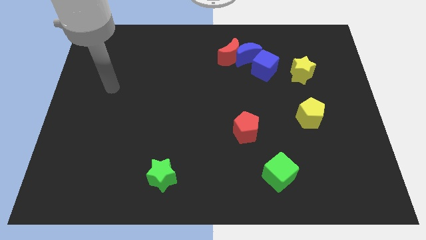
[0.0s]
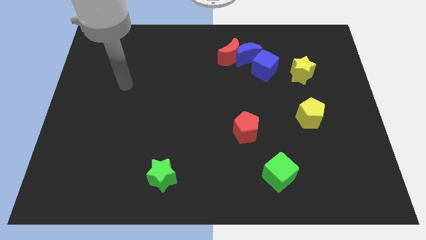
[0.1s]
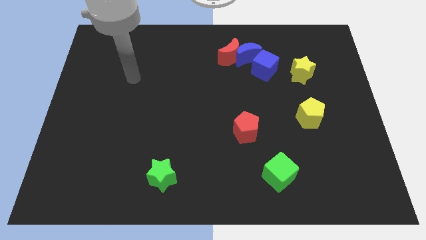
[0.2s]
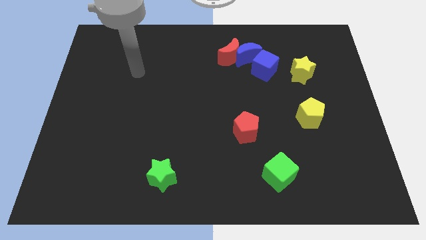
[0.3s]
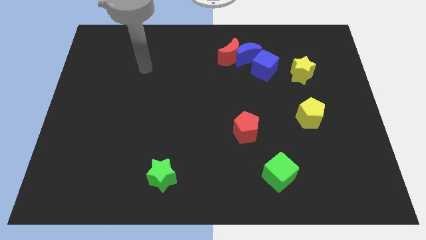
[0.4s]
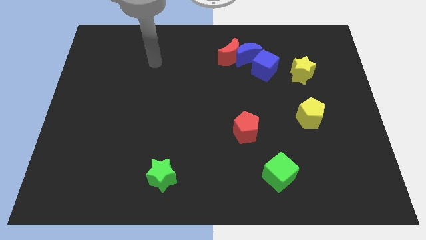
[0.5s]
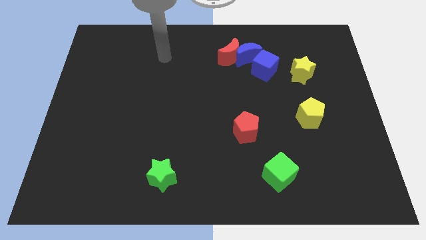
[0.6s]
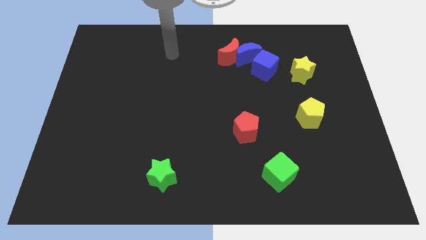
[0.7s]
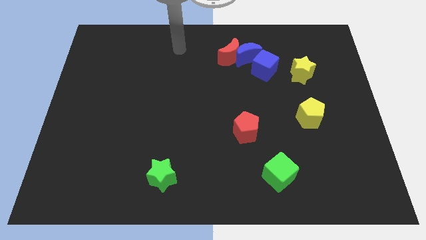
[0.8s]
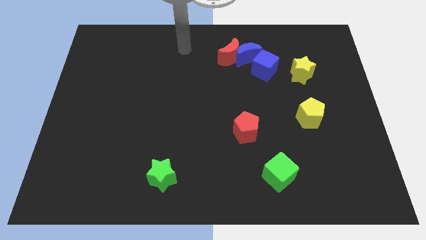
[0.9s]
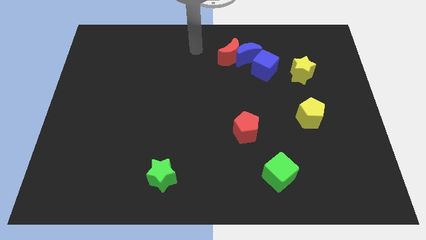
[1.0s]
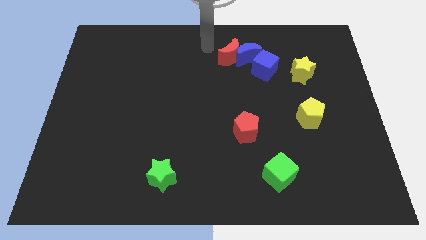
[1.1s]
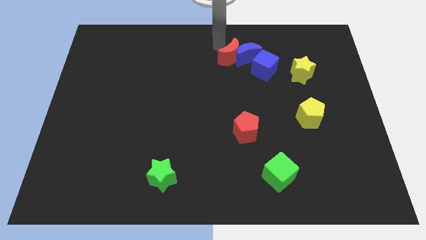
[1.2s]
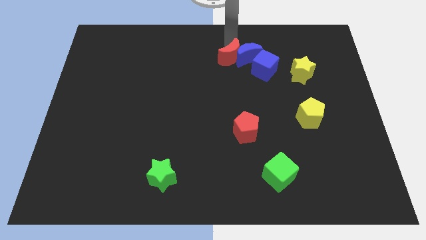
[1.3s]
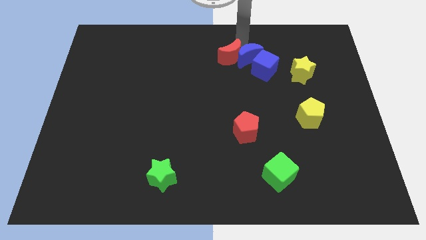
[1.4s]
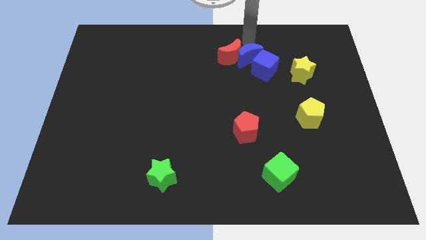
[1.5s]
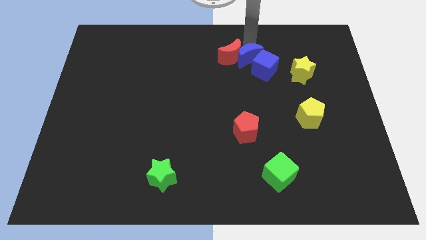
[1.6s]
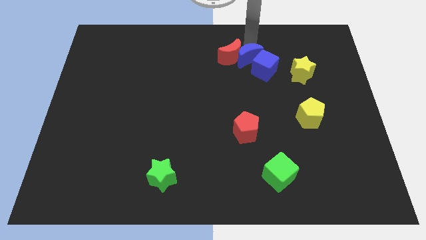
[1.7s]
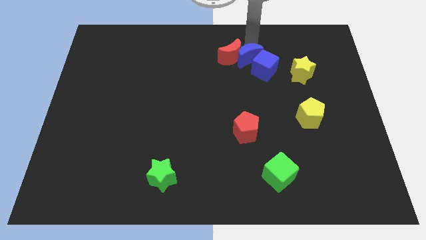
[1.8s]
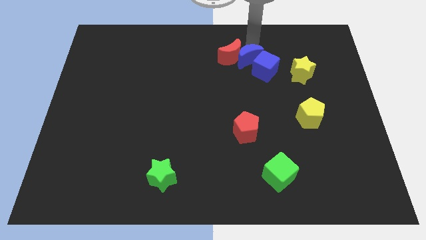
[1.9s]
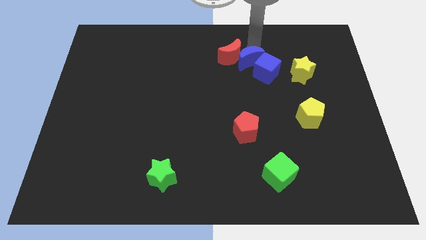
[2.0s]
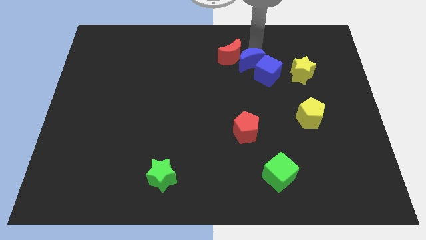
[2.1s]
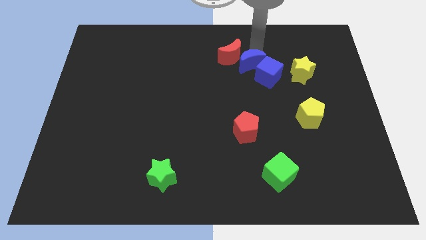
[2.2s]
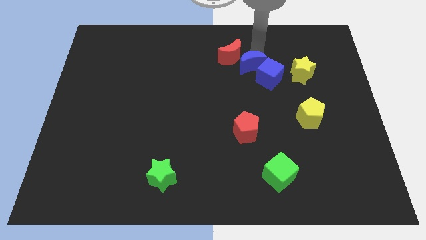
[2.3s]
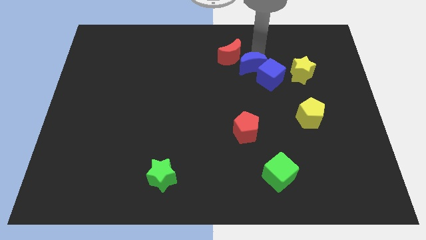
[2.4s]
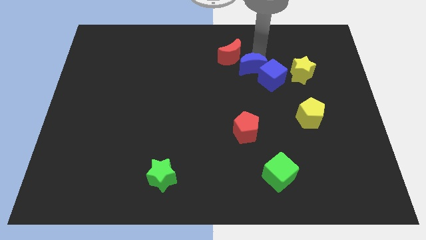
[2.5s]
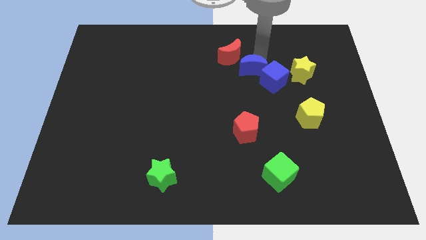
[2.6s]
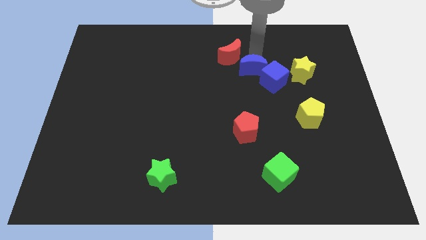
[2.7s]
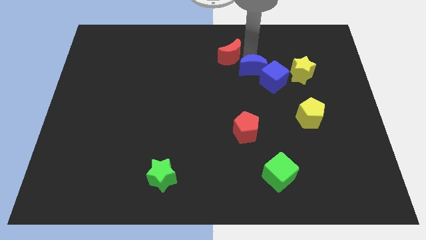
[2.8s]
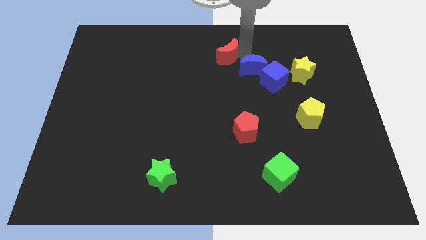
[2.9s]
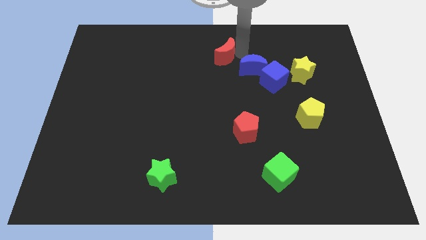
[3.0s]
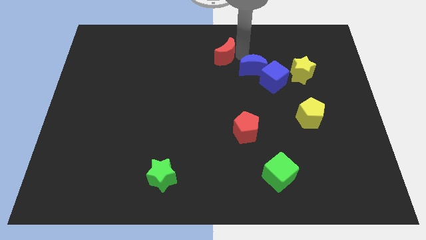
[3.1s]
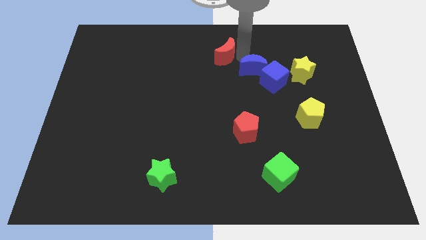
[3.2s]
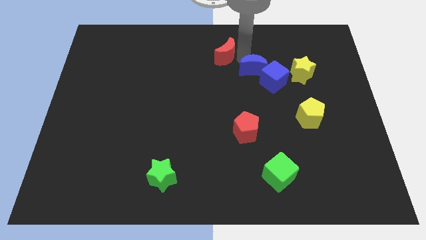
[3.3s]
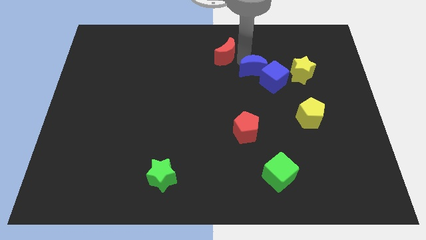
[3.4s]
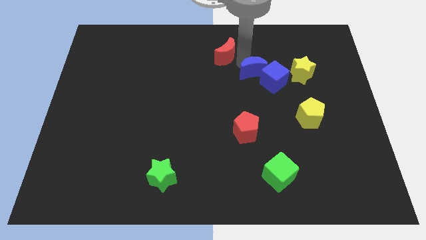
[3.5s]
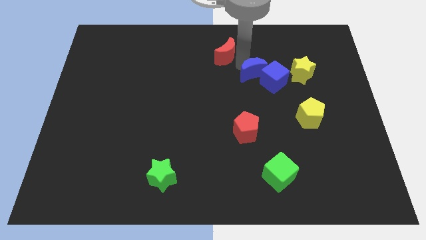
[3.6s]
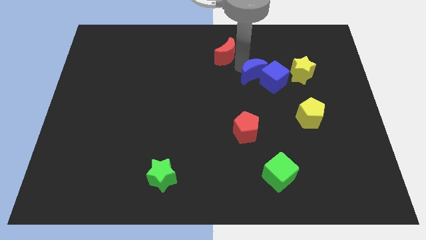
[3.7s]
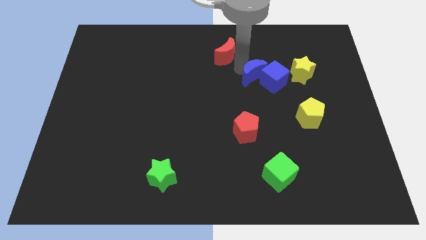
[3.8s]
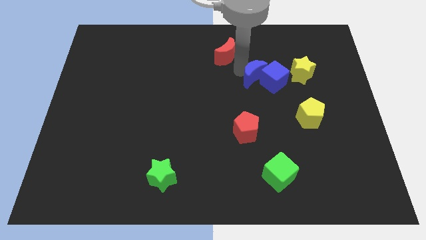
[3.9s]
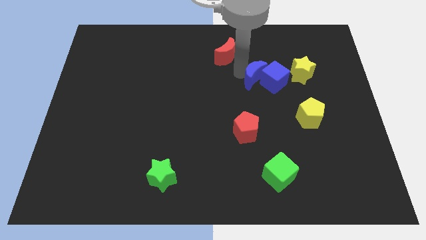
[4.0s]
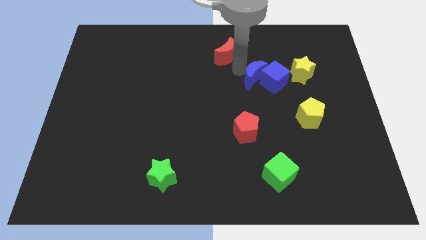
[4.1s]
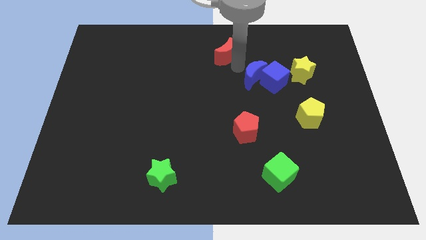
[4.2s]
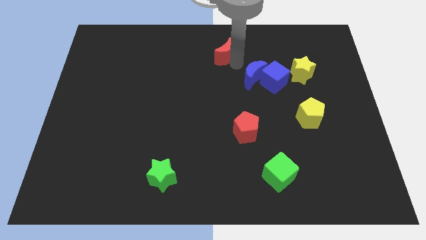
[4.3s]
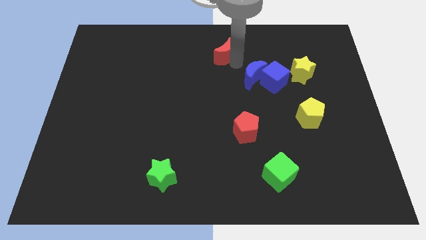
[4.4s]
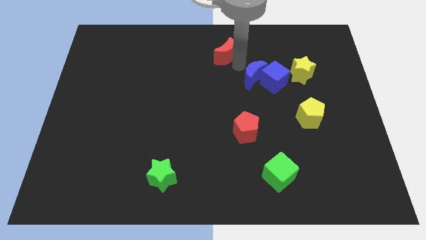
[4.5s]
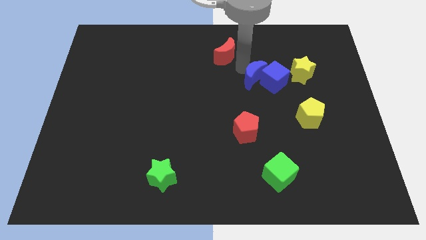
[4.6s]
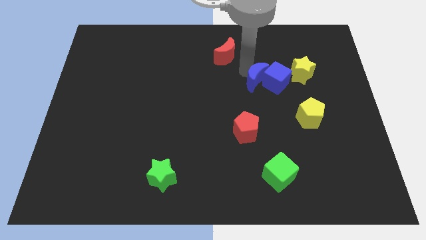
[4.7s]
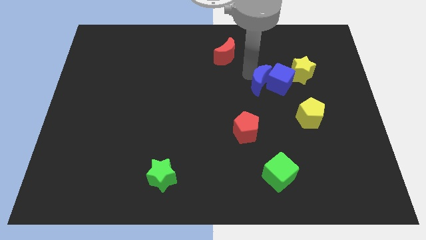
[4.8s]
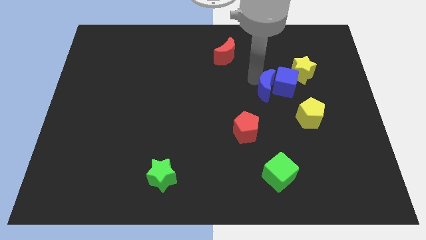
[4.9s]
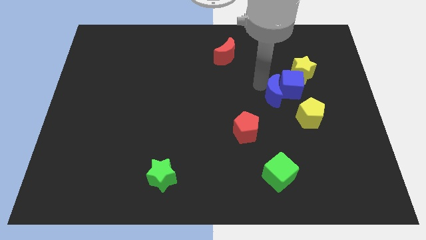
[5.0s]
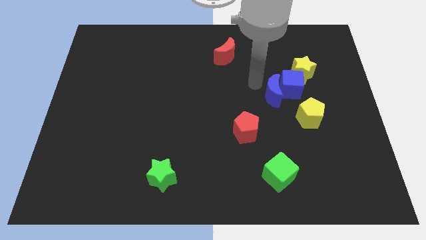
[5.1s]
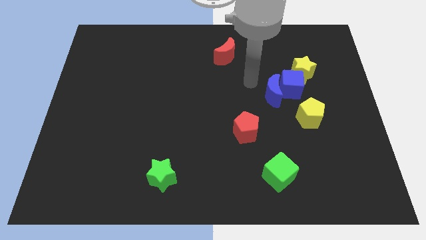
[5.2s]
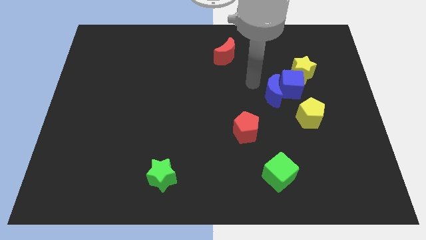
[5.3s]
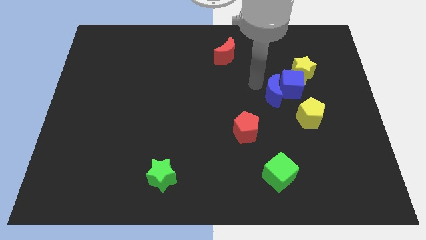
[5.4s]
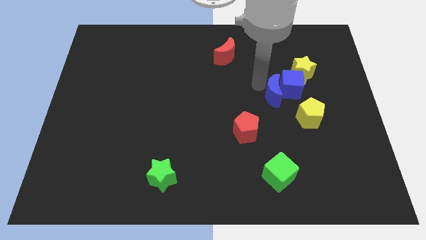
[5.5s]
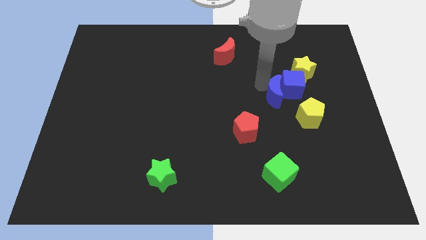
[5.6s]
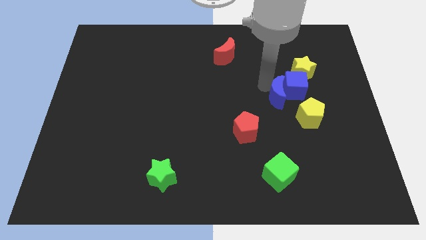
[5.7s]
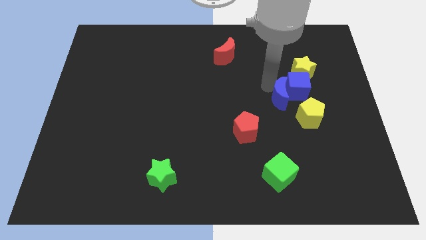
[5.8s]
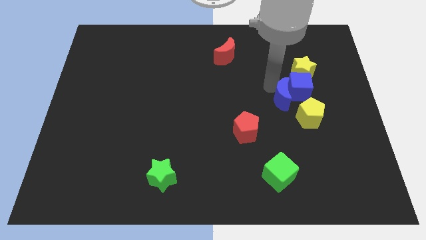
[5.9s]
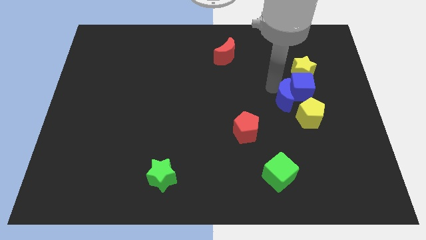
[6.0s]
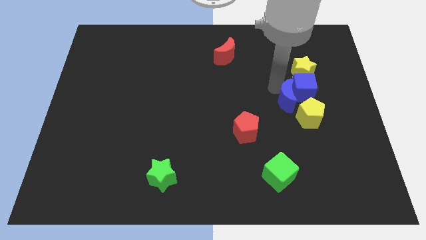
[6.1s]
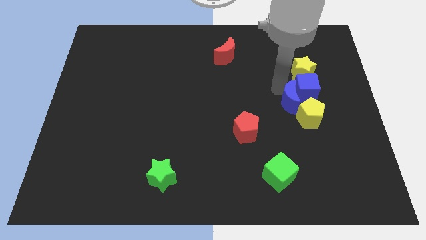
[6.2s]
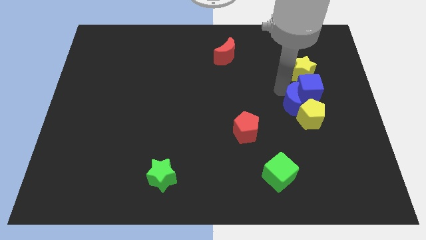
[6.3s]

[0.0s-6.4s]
put the blue moon close to the yellow pentagon

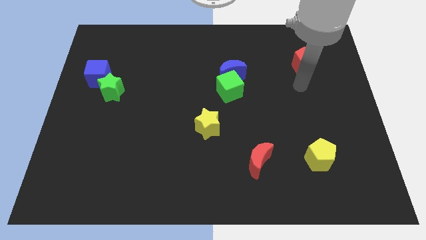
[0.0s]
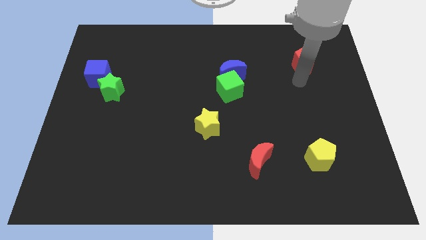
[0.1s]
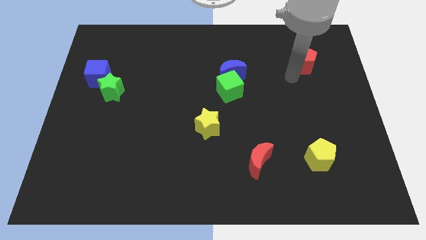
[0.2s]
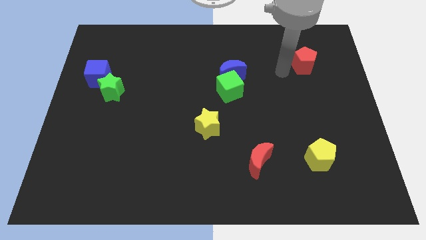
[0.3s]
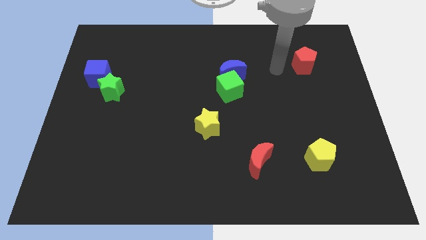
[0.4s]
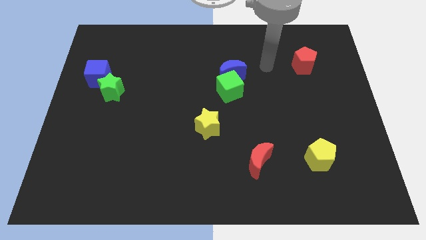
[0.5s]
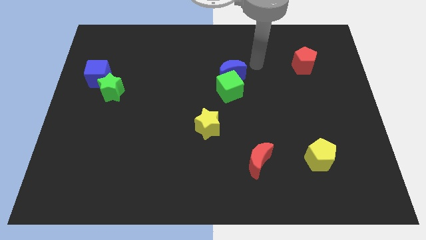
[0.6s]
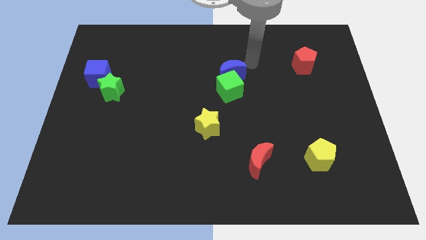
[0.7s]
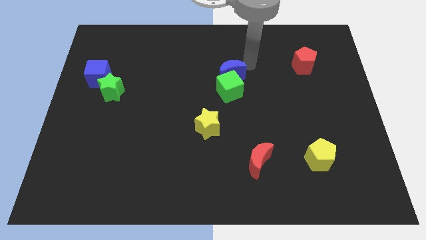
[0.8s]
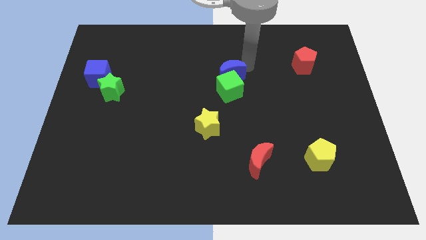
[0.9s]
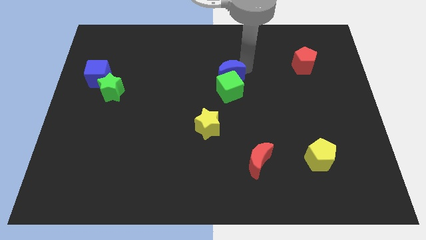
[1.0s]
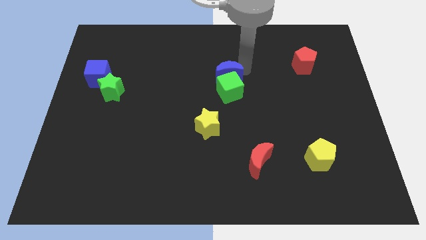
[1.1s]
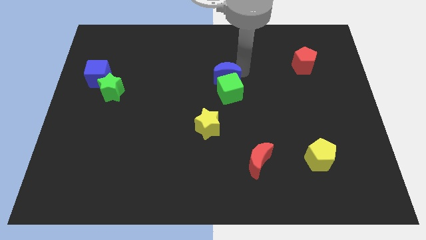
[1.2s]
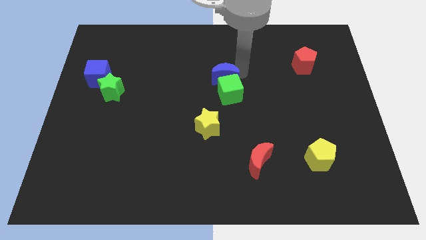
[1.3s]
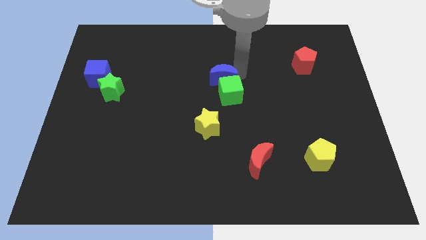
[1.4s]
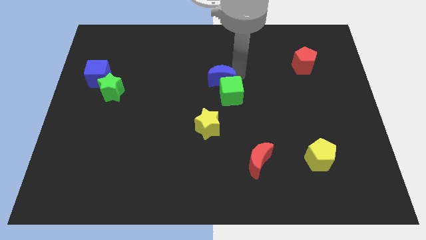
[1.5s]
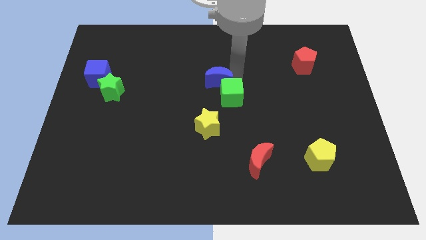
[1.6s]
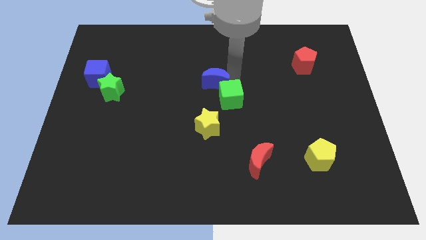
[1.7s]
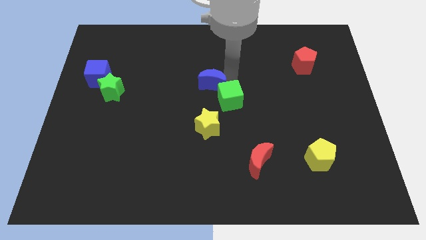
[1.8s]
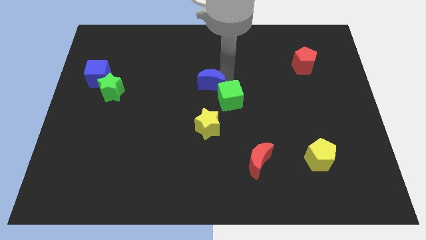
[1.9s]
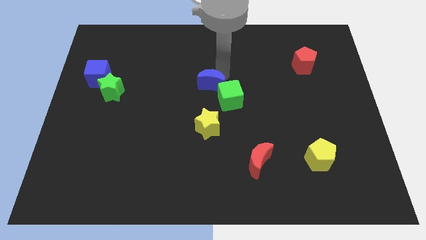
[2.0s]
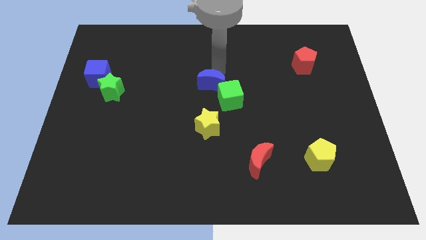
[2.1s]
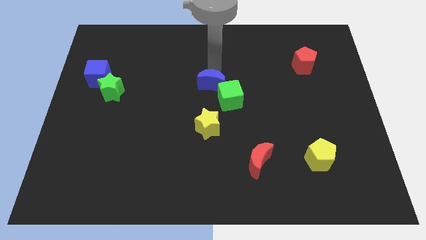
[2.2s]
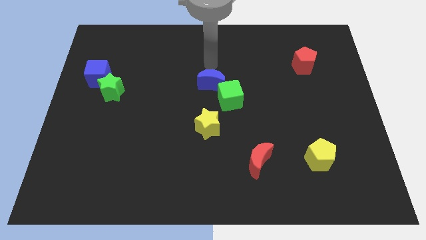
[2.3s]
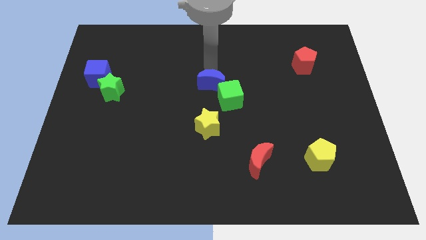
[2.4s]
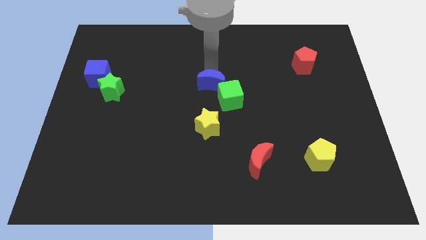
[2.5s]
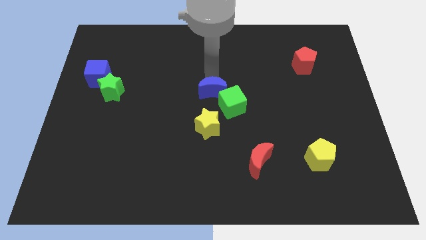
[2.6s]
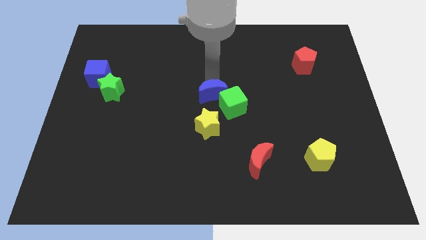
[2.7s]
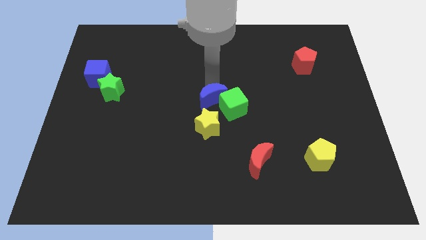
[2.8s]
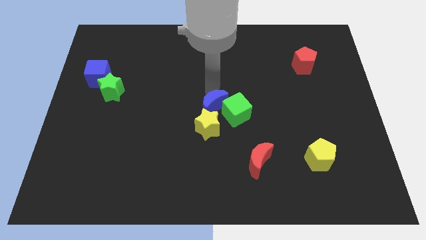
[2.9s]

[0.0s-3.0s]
put the blue moon towards the yellow star
